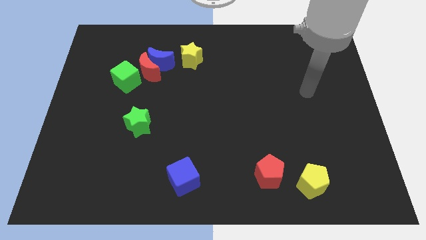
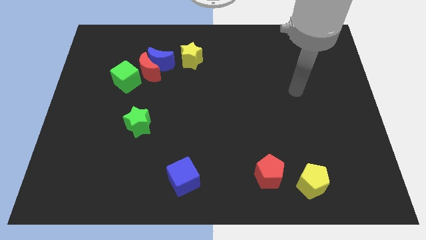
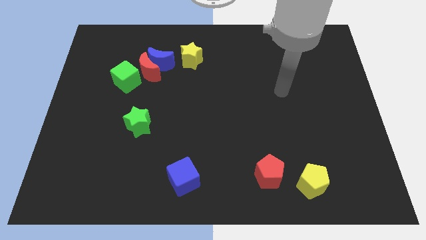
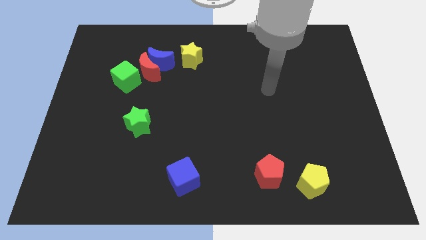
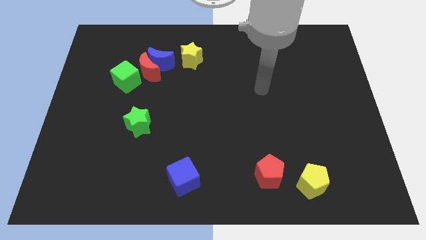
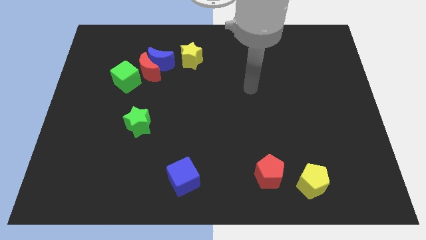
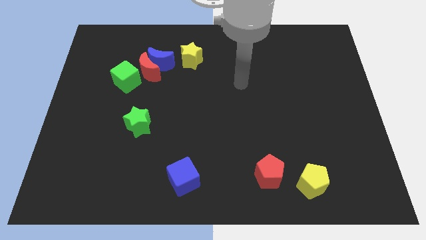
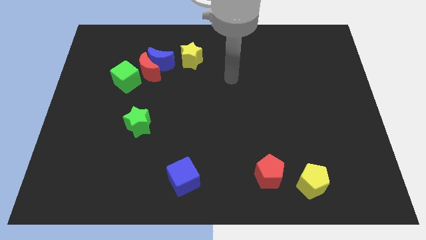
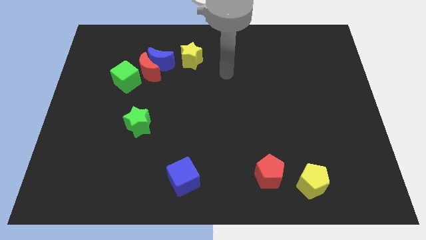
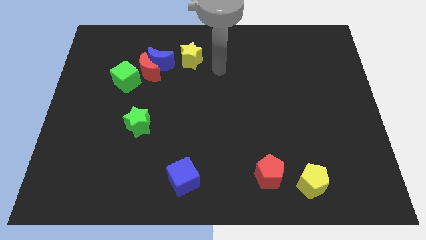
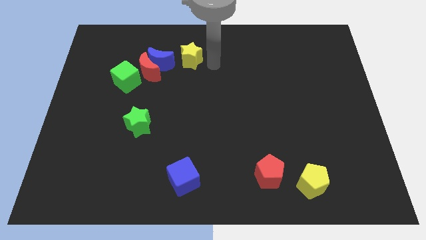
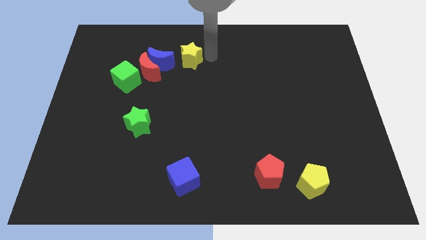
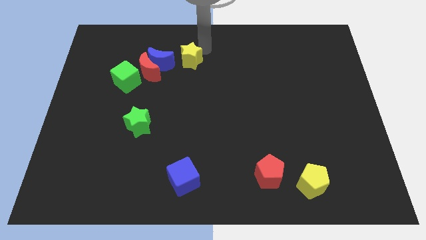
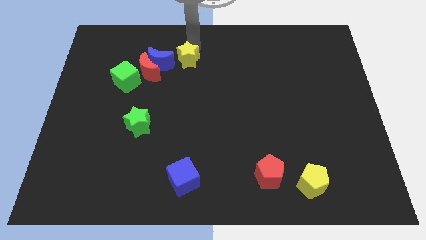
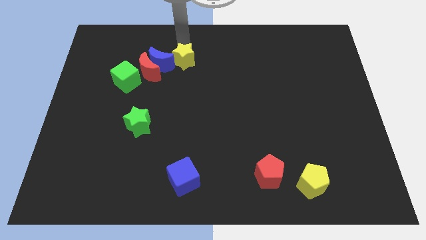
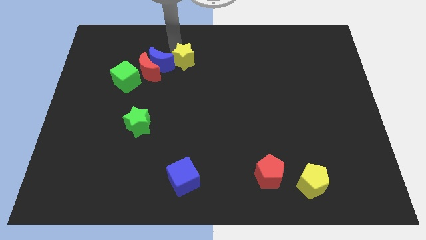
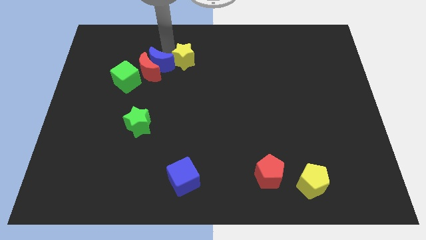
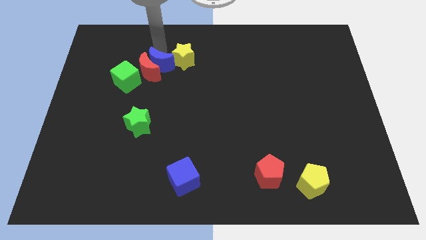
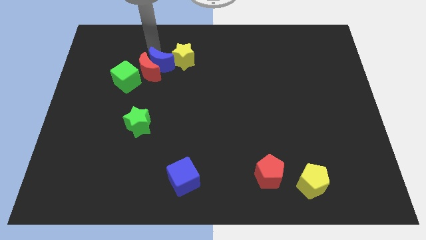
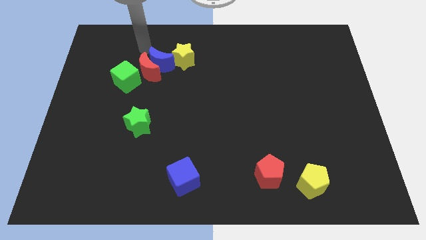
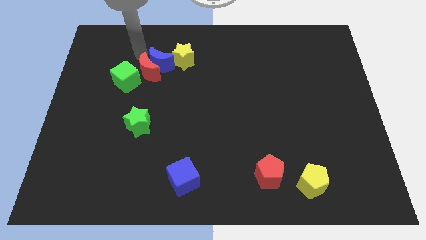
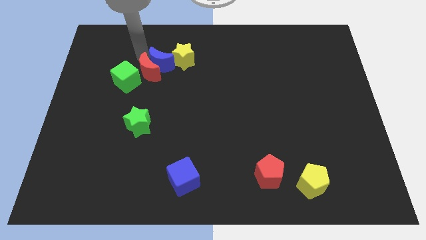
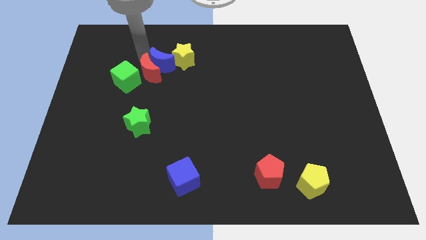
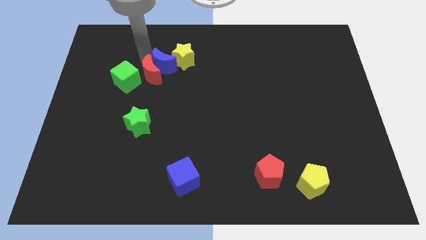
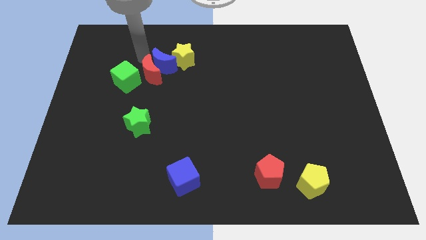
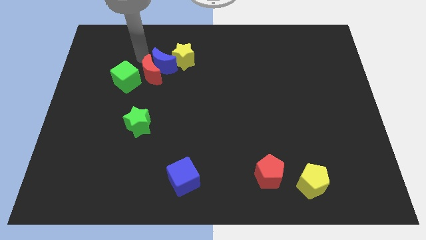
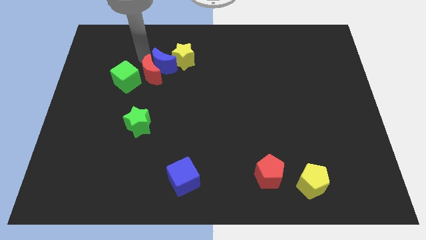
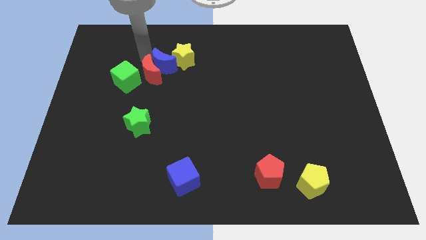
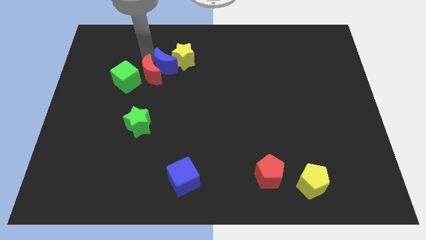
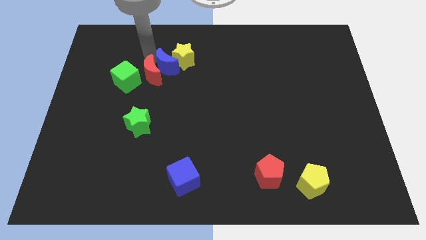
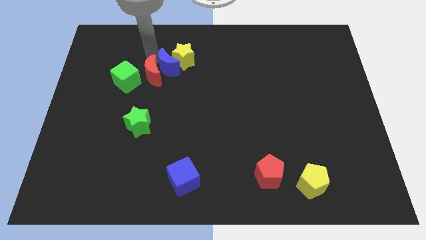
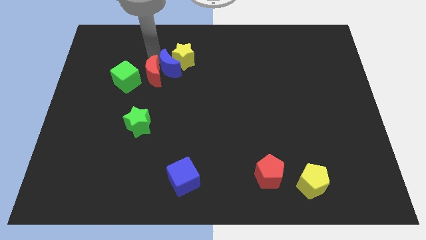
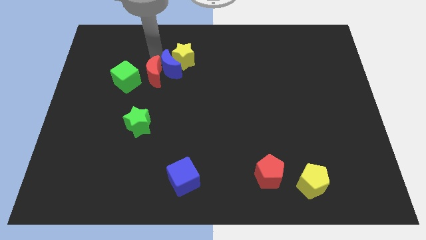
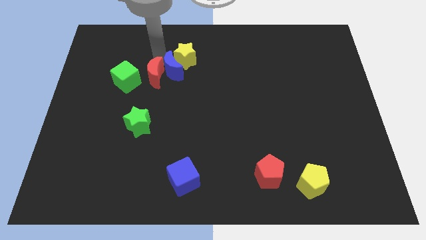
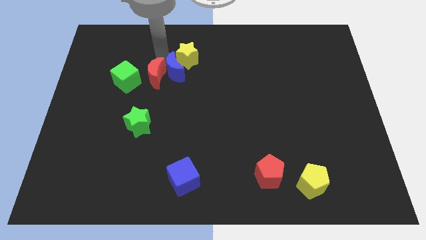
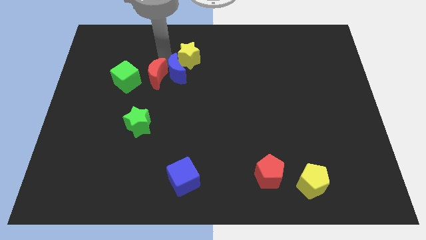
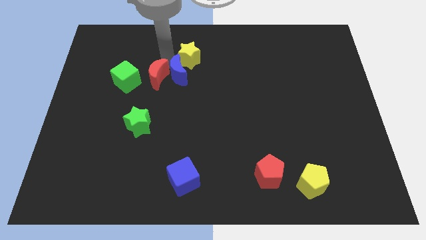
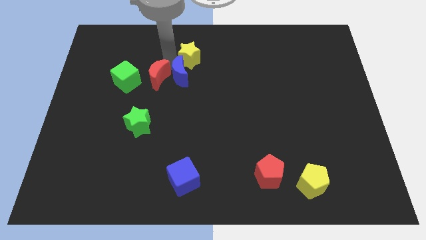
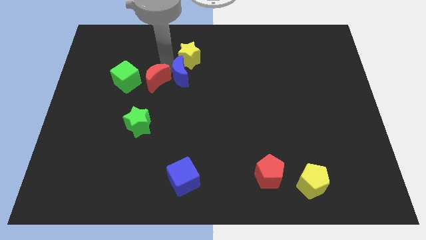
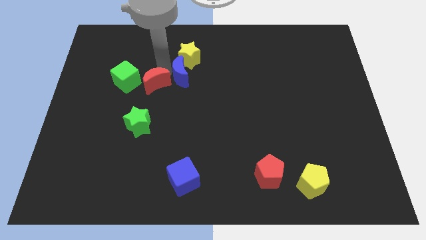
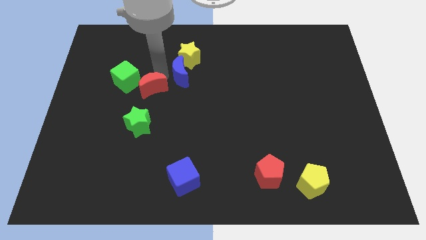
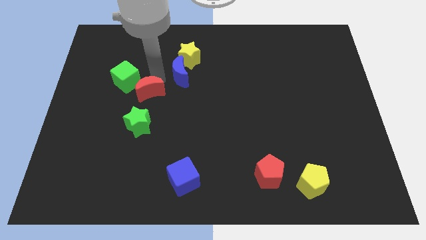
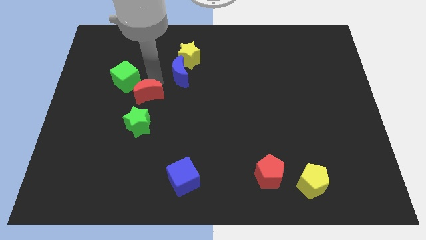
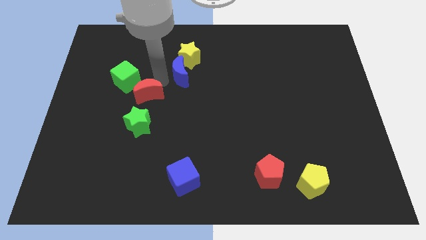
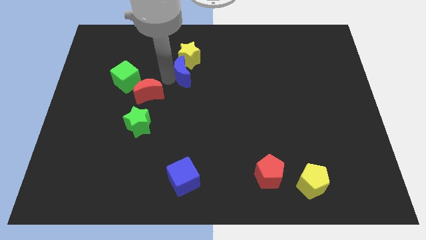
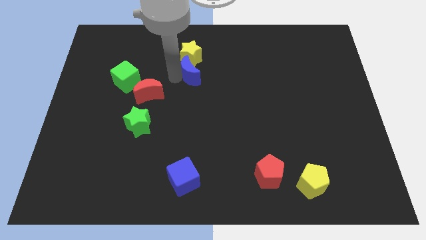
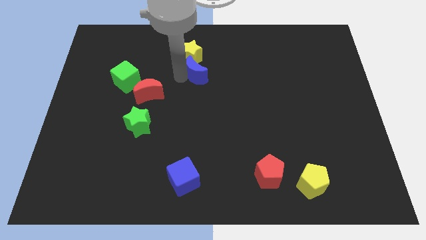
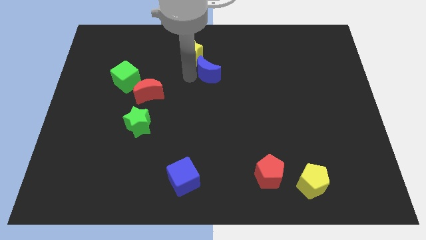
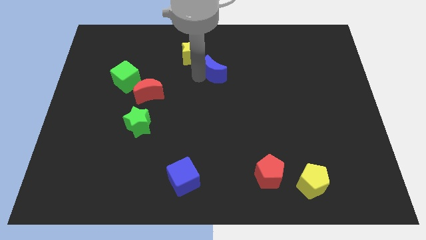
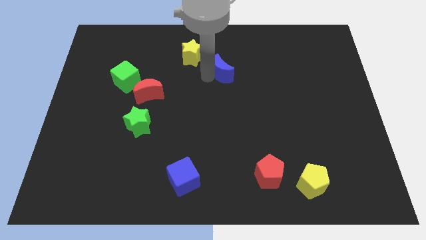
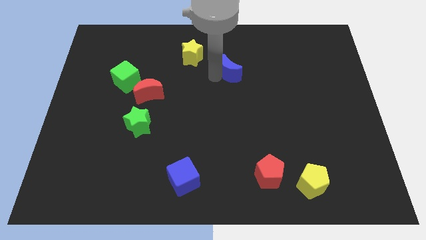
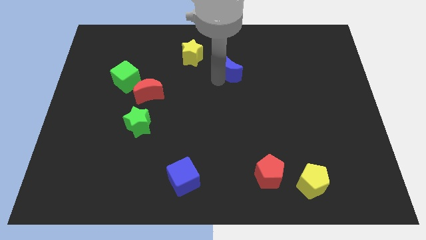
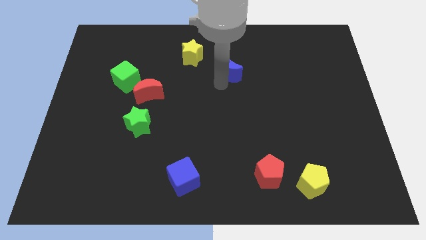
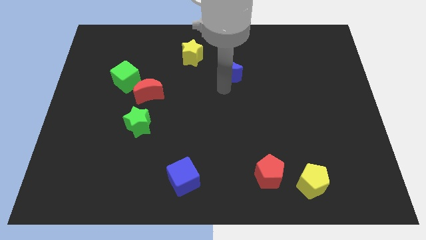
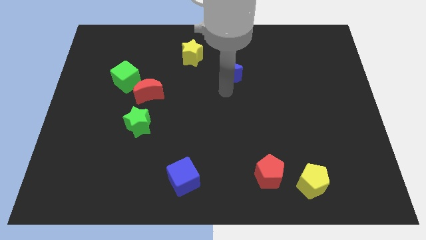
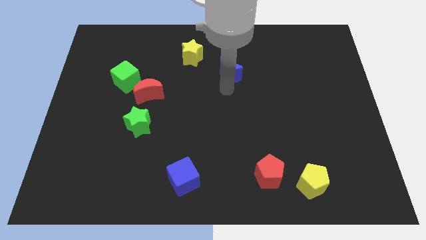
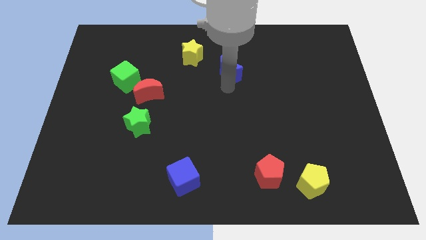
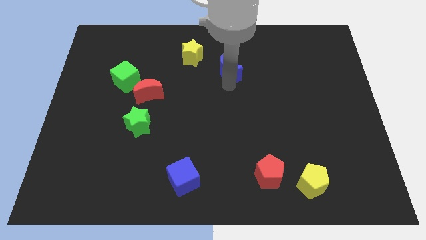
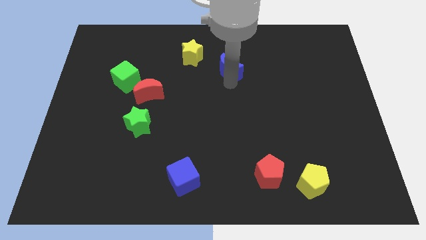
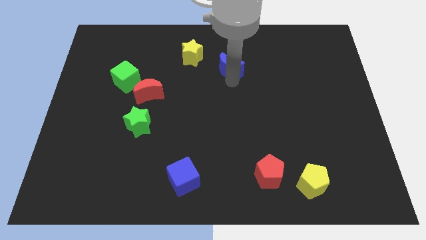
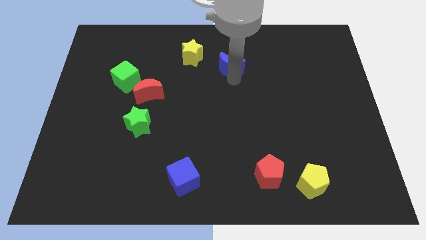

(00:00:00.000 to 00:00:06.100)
slide the blue moon right of the yellow star

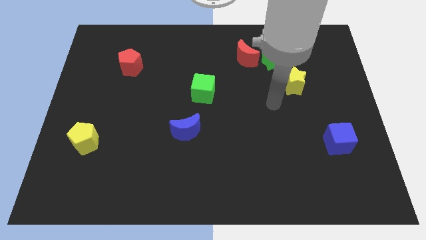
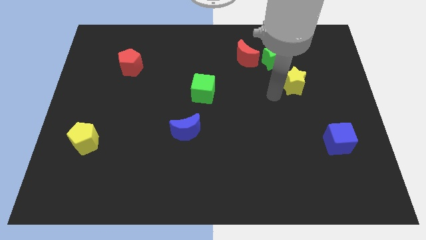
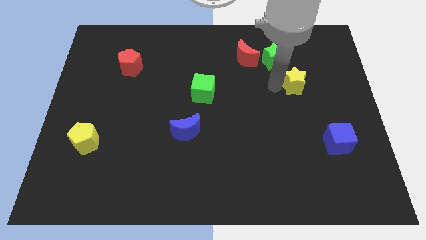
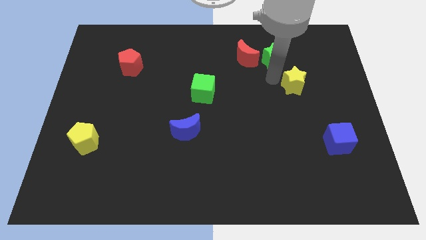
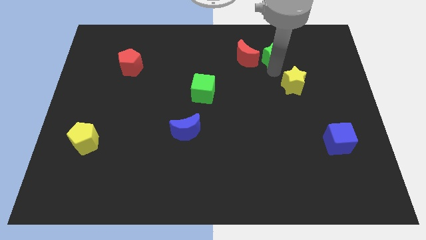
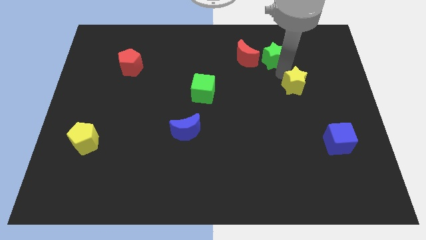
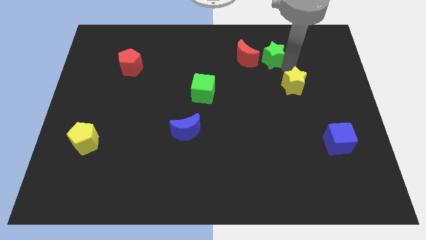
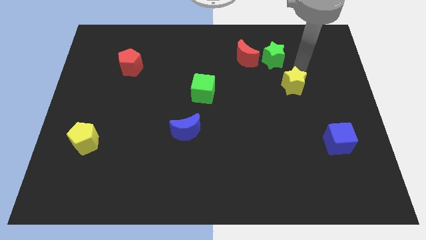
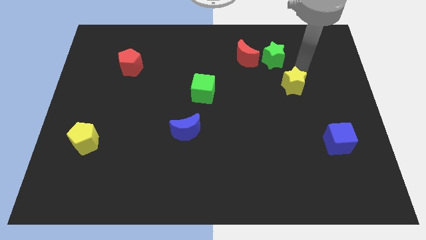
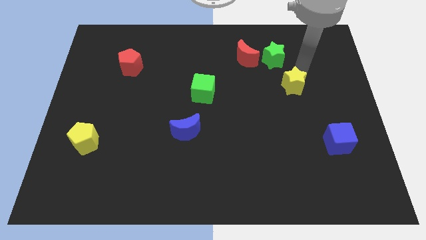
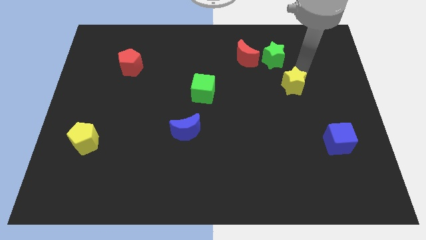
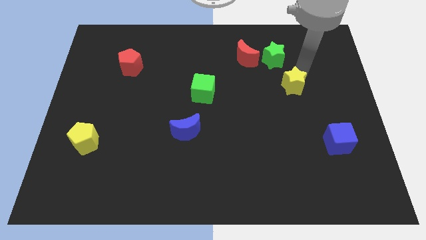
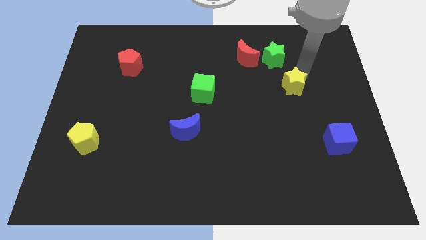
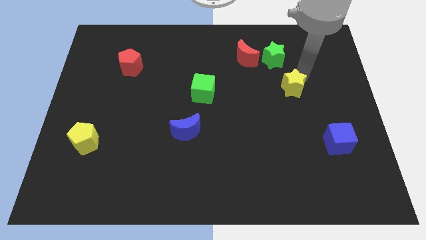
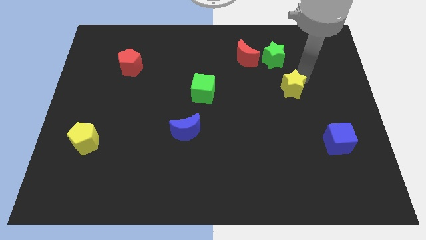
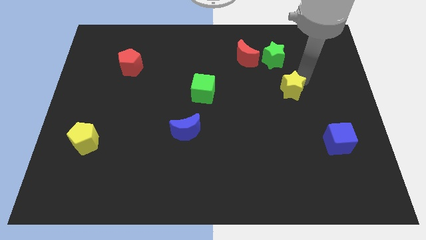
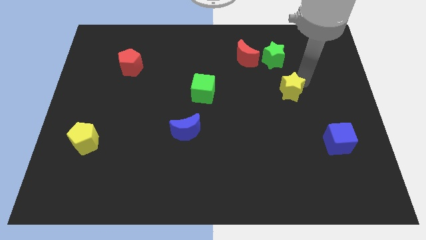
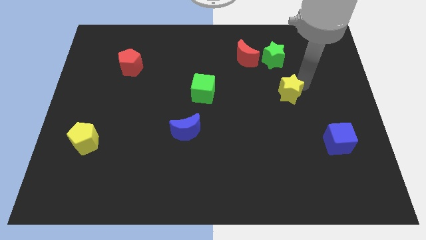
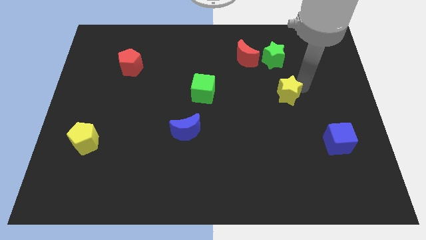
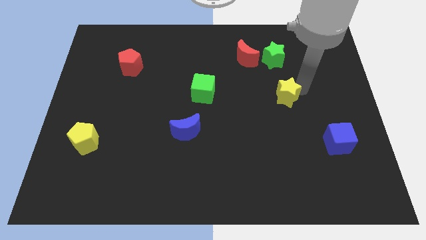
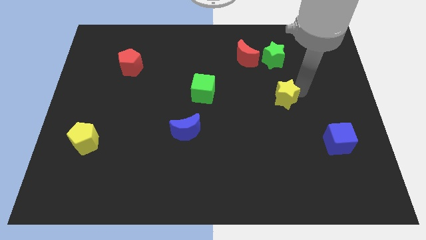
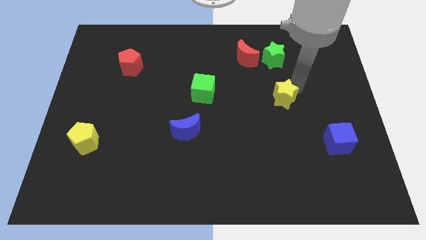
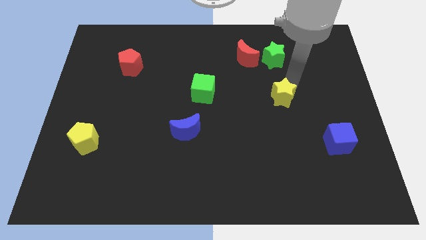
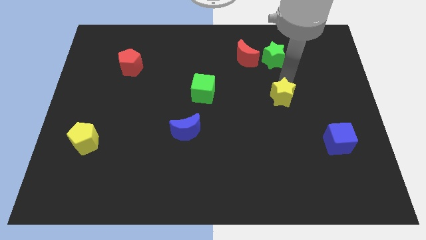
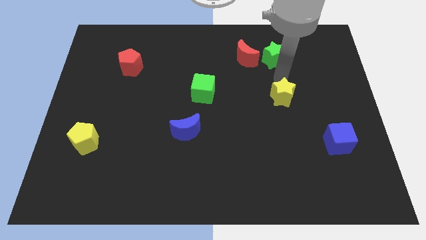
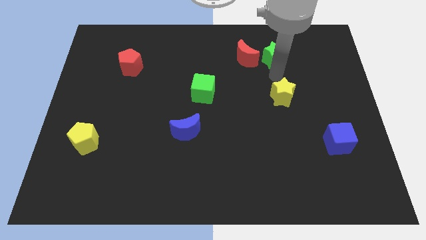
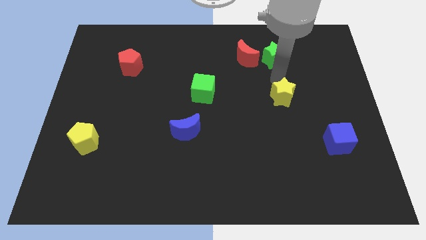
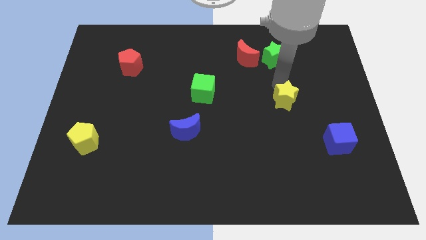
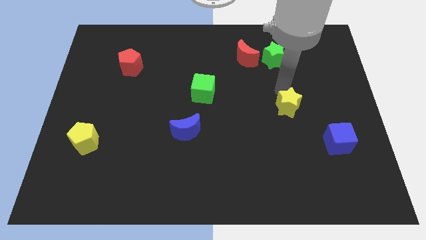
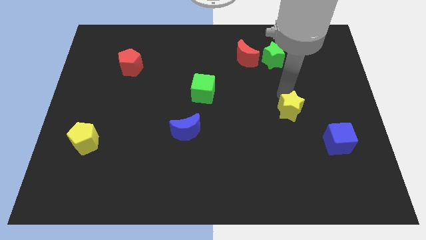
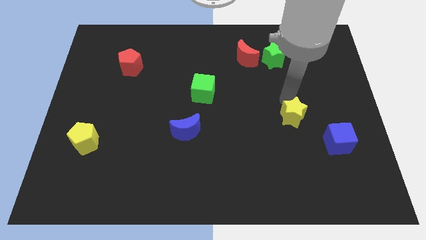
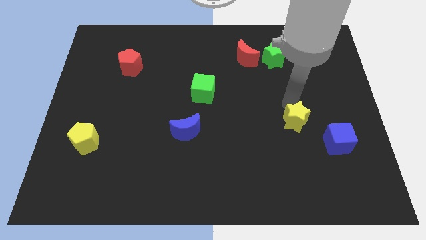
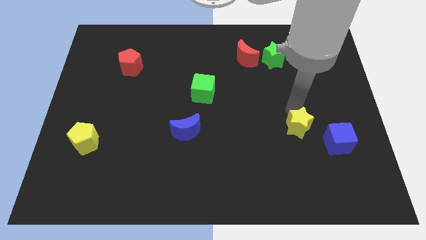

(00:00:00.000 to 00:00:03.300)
put the yellow star just left of the blue cube
